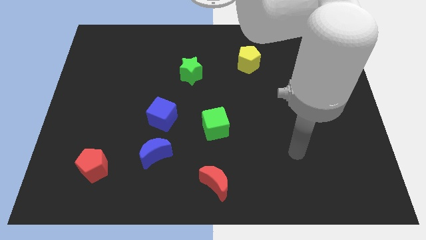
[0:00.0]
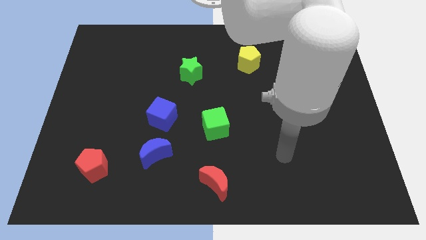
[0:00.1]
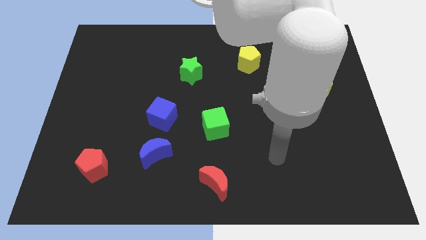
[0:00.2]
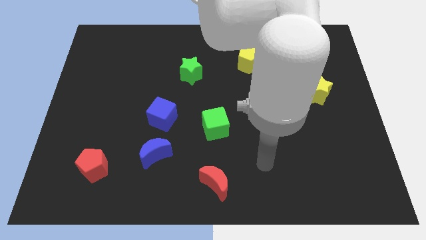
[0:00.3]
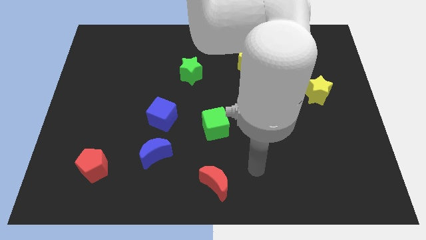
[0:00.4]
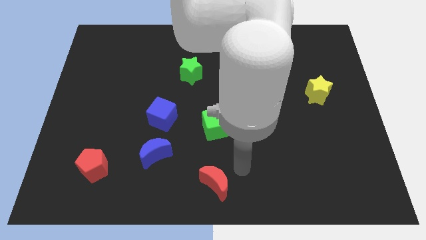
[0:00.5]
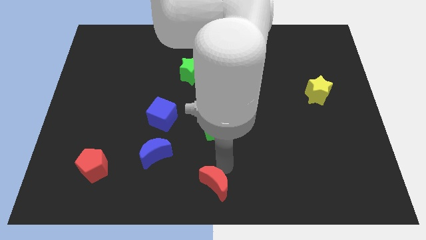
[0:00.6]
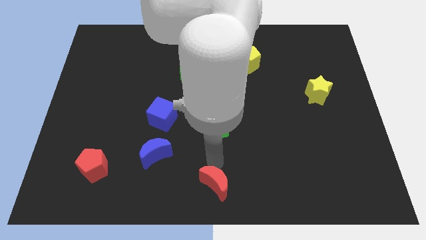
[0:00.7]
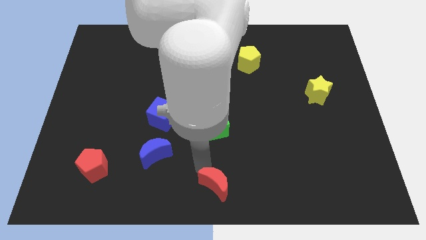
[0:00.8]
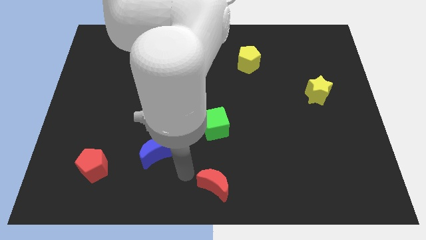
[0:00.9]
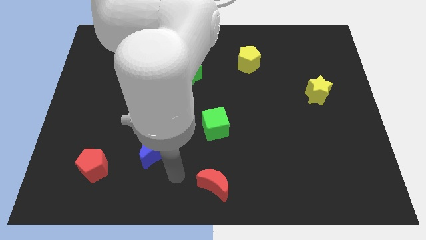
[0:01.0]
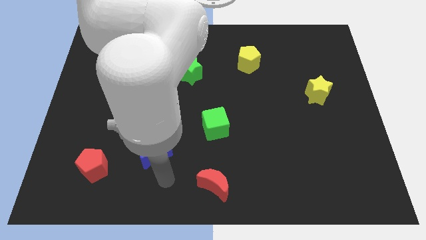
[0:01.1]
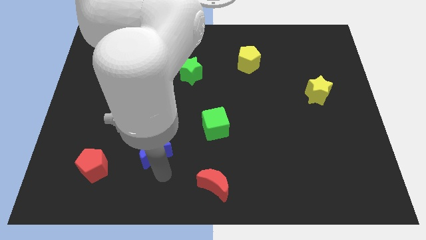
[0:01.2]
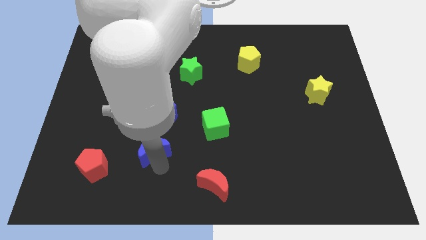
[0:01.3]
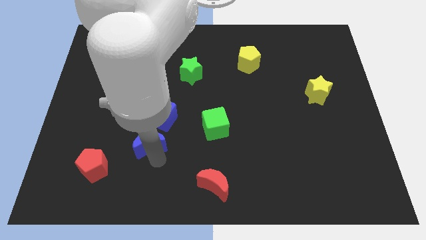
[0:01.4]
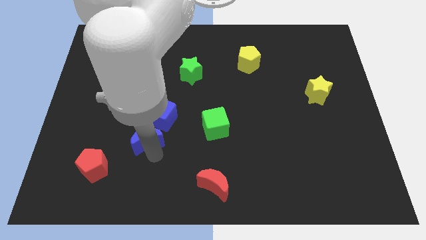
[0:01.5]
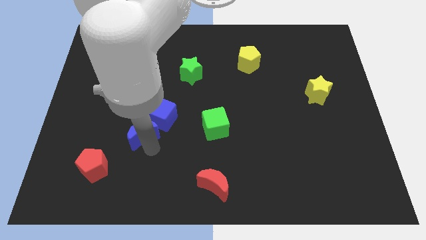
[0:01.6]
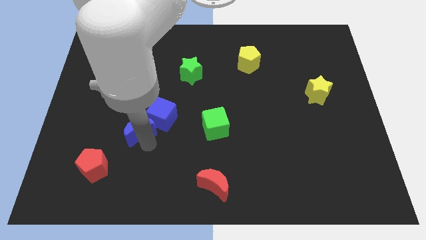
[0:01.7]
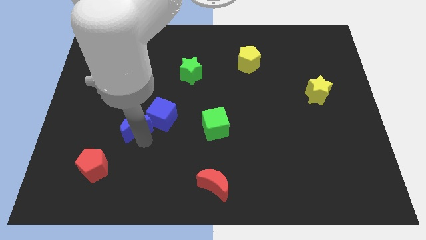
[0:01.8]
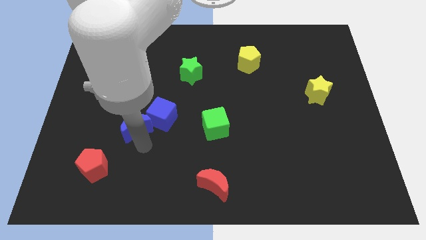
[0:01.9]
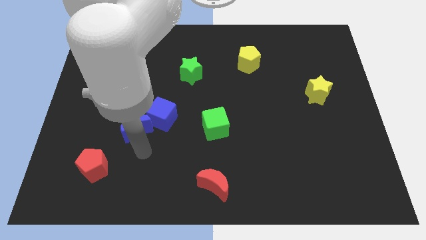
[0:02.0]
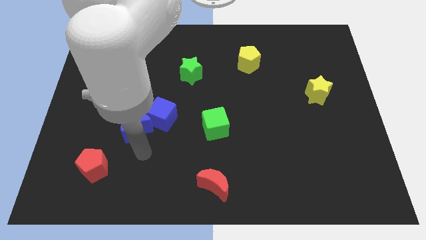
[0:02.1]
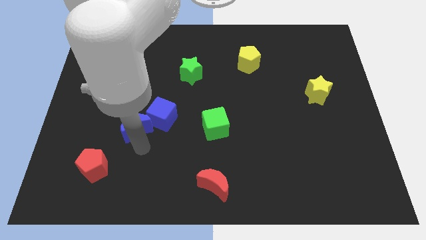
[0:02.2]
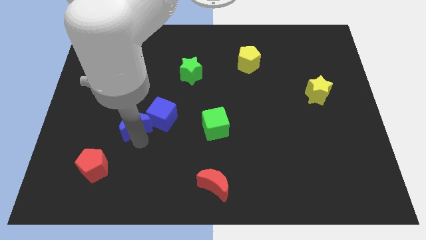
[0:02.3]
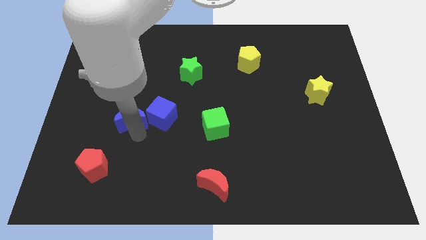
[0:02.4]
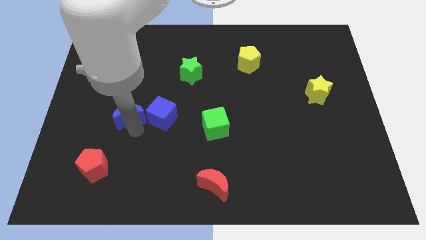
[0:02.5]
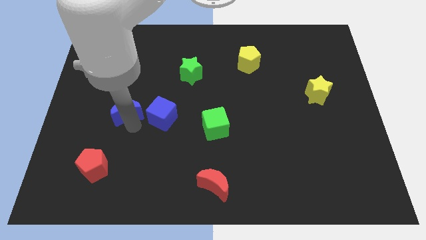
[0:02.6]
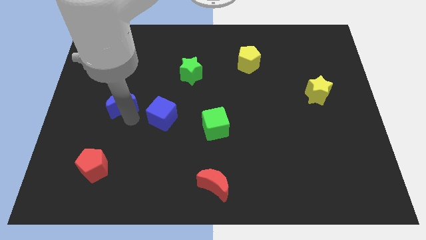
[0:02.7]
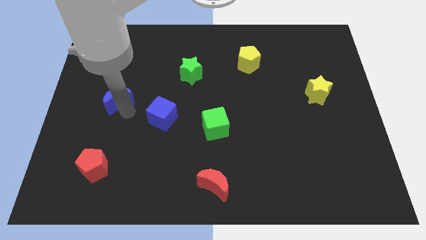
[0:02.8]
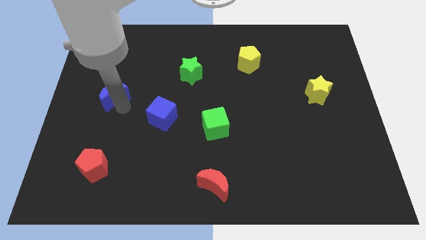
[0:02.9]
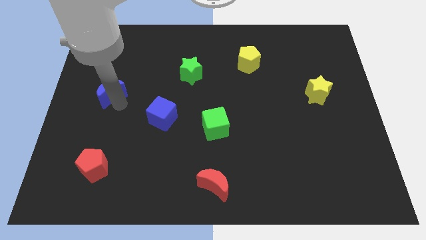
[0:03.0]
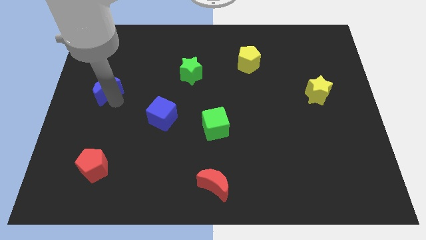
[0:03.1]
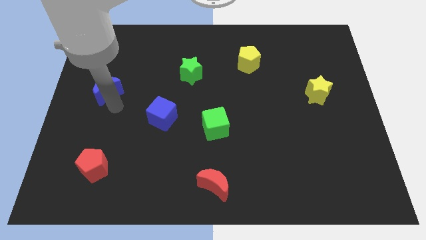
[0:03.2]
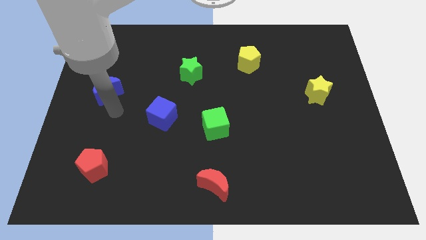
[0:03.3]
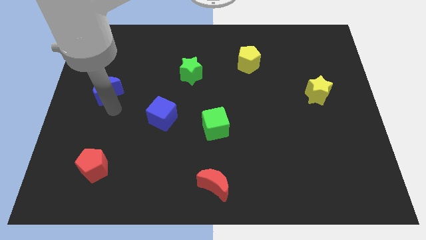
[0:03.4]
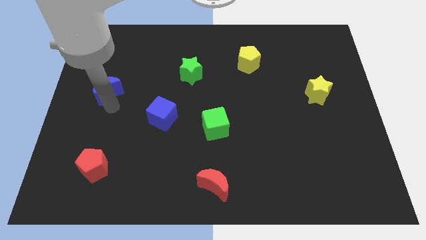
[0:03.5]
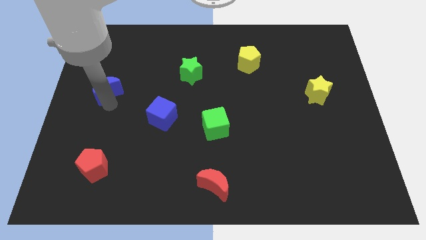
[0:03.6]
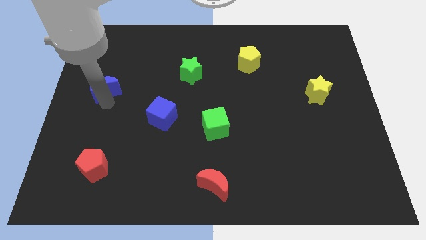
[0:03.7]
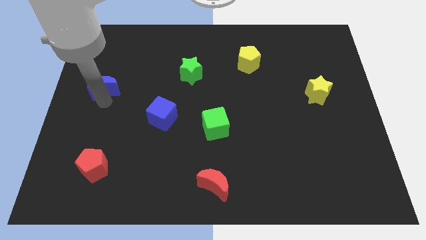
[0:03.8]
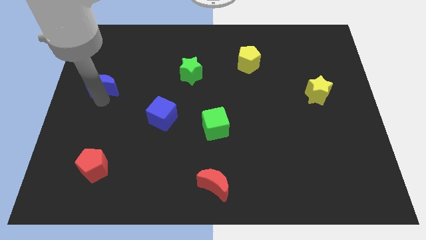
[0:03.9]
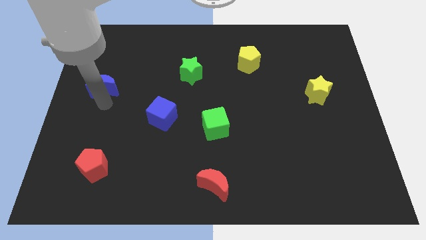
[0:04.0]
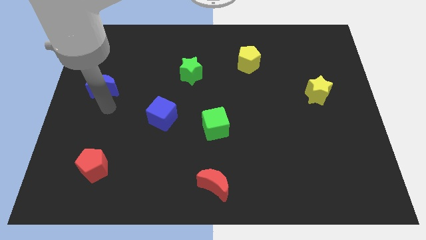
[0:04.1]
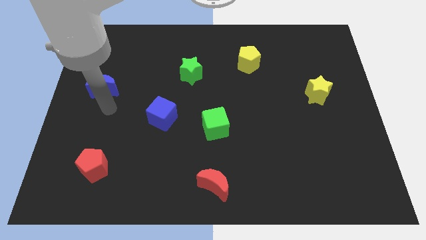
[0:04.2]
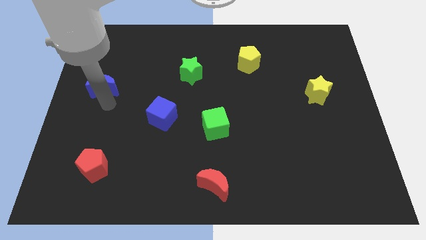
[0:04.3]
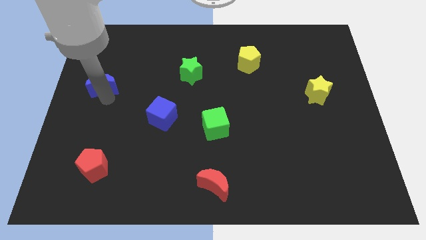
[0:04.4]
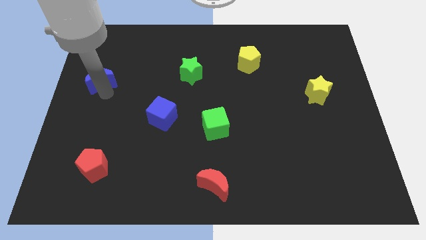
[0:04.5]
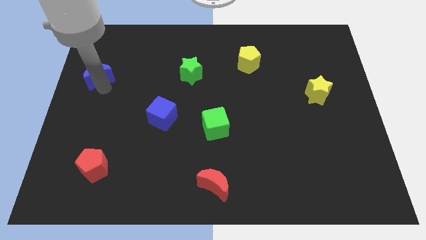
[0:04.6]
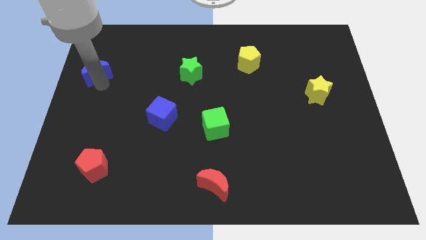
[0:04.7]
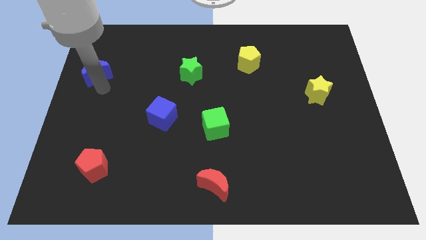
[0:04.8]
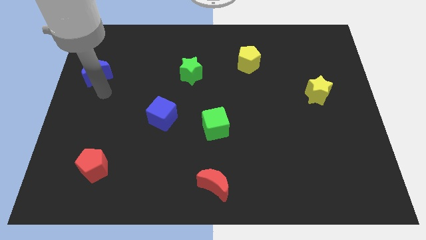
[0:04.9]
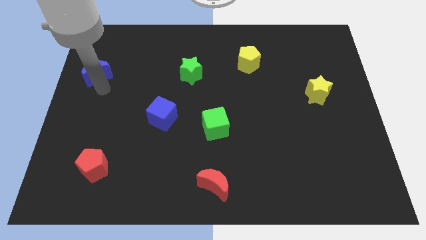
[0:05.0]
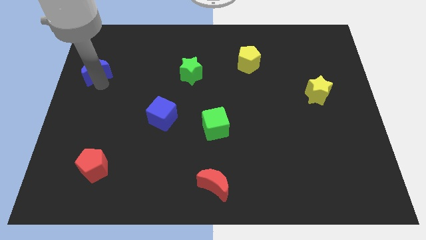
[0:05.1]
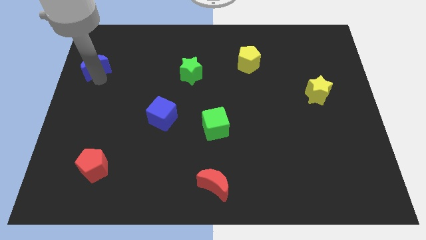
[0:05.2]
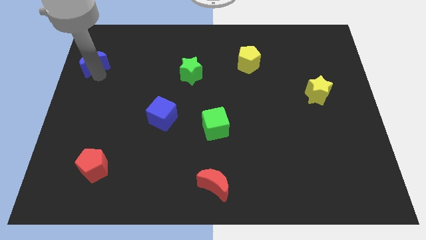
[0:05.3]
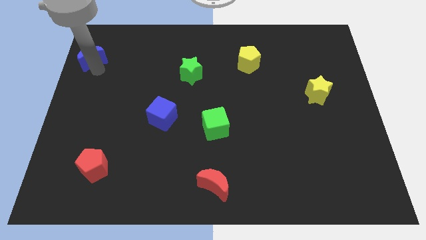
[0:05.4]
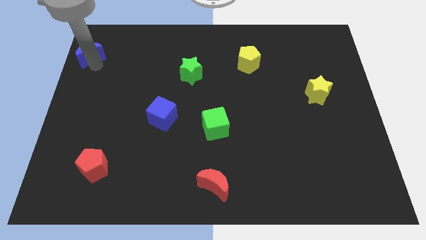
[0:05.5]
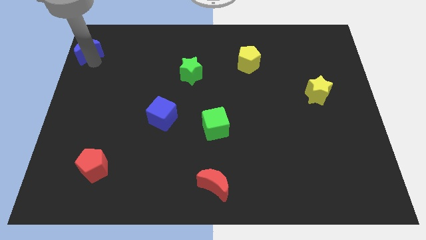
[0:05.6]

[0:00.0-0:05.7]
move the blue moon to the top left corner

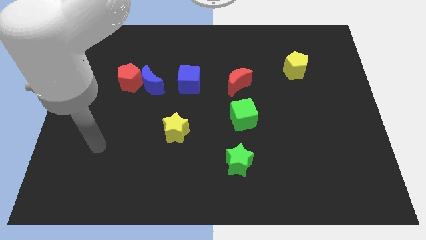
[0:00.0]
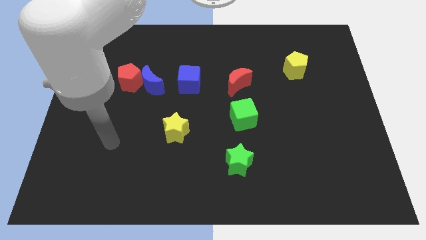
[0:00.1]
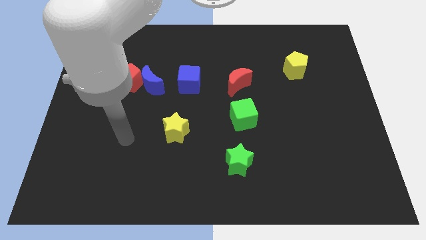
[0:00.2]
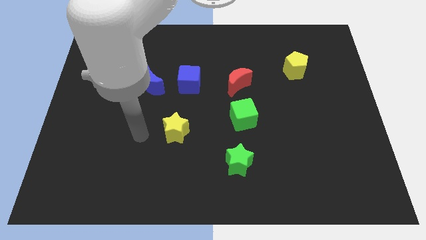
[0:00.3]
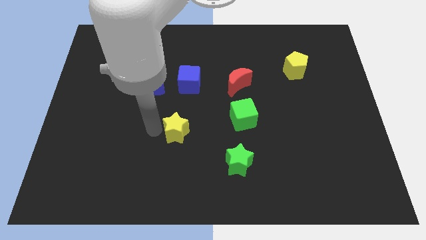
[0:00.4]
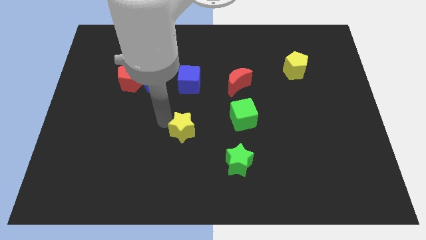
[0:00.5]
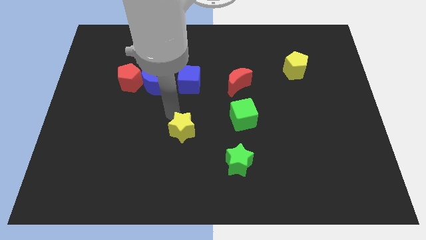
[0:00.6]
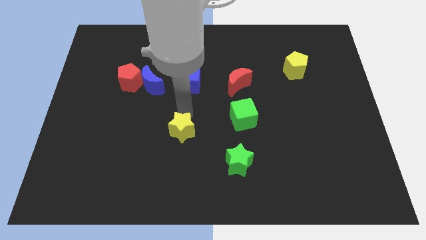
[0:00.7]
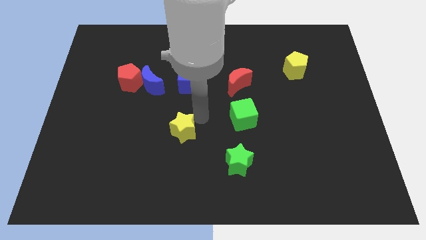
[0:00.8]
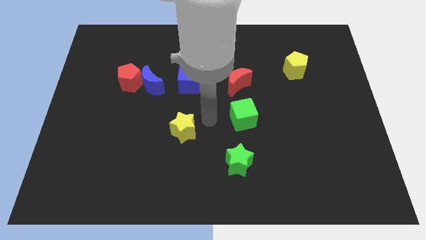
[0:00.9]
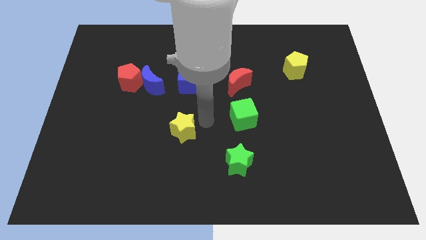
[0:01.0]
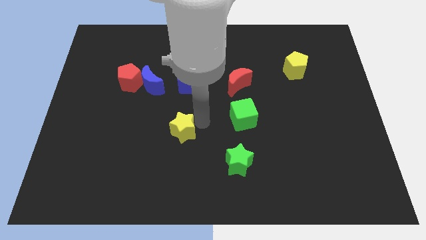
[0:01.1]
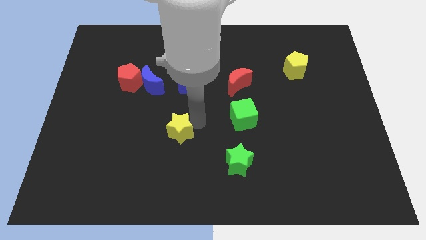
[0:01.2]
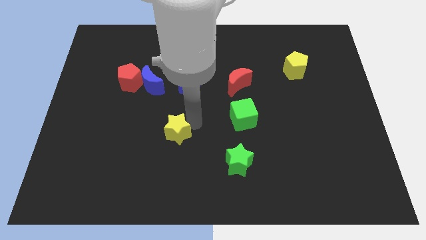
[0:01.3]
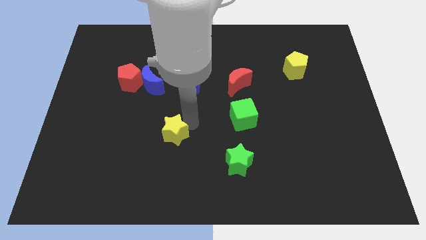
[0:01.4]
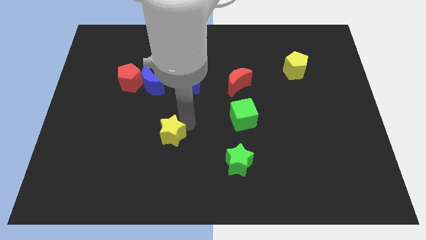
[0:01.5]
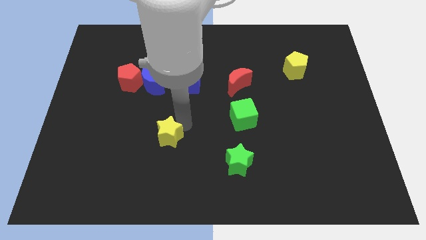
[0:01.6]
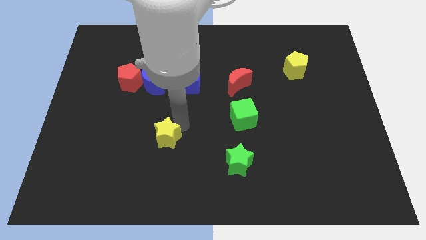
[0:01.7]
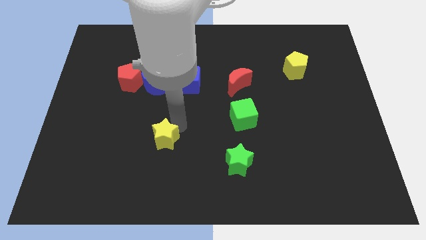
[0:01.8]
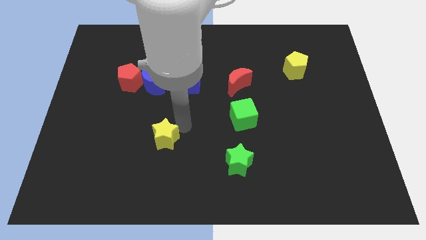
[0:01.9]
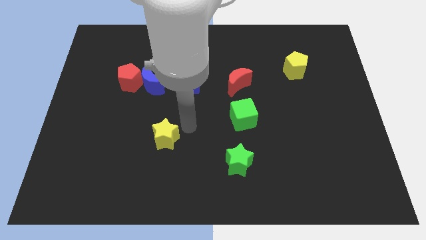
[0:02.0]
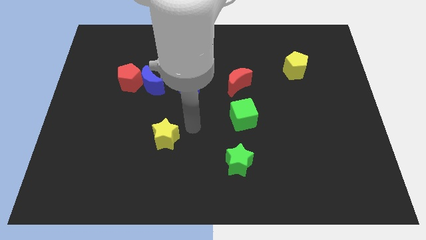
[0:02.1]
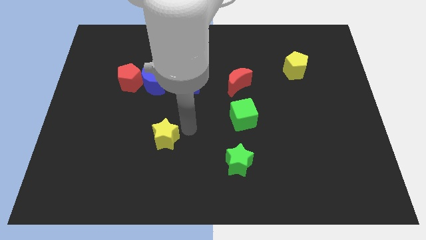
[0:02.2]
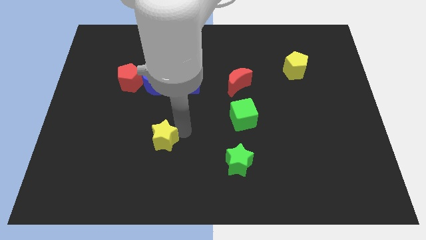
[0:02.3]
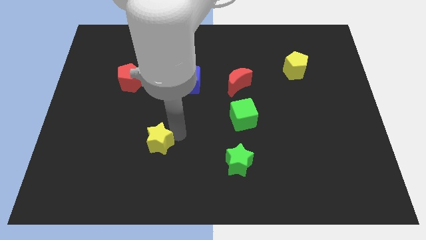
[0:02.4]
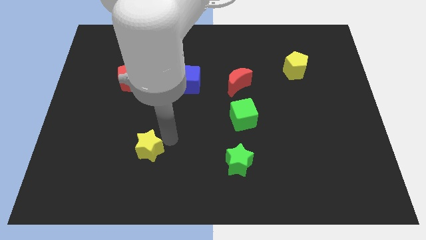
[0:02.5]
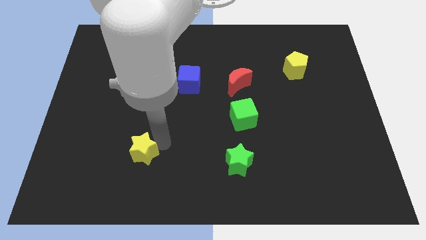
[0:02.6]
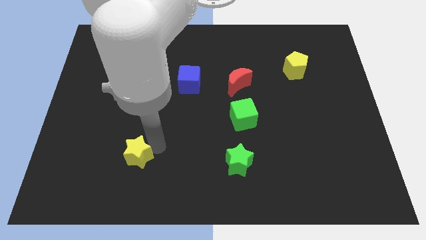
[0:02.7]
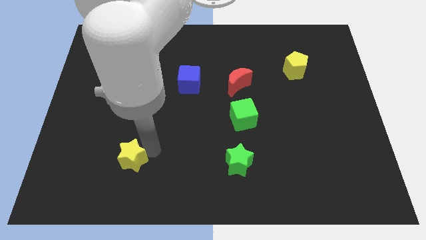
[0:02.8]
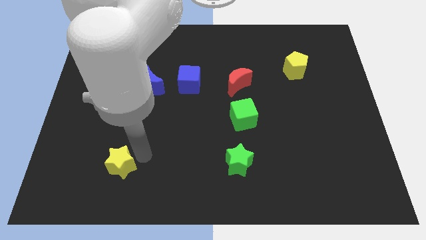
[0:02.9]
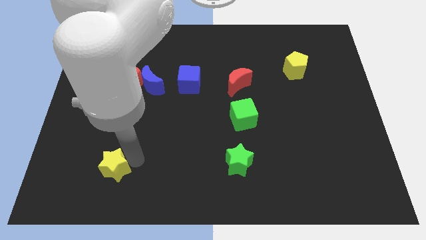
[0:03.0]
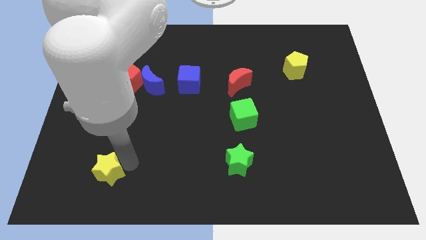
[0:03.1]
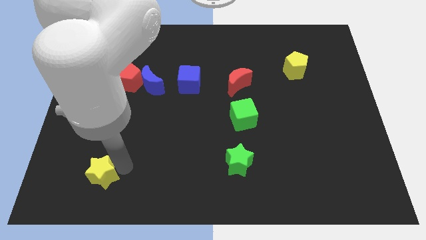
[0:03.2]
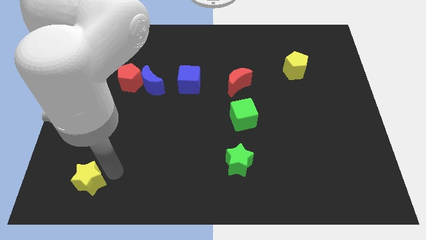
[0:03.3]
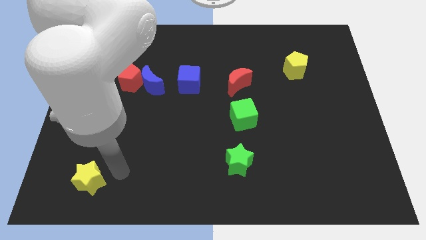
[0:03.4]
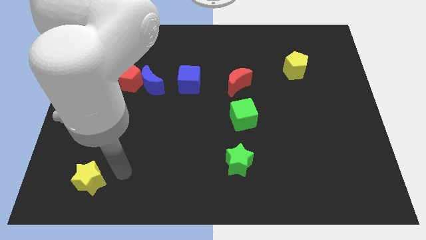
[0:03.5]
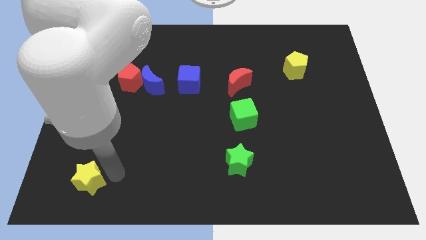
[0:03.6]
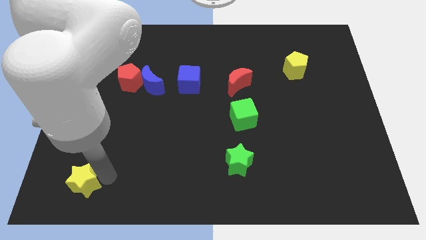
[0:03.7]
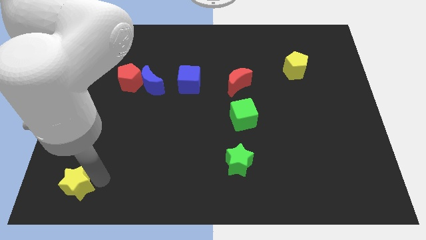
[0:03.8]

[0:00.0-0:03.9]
put the yellow star to the lower left corner
